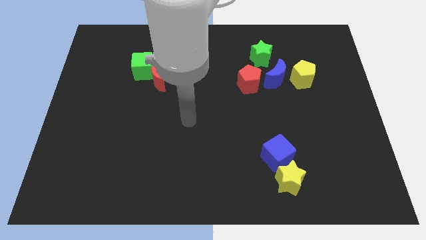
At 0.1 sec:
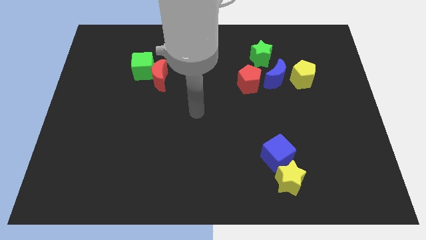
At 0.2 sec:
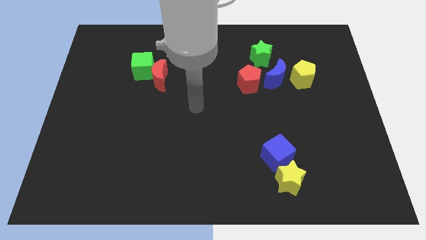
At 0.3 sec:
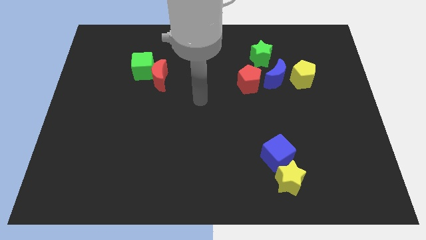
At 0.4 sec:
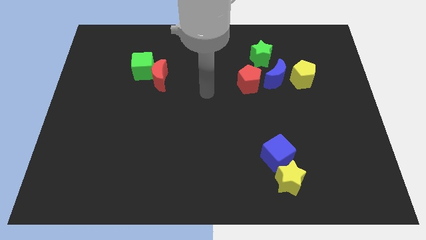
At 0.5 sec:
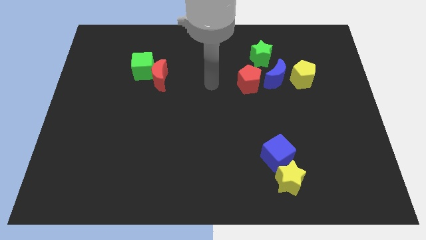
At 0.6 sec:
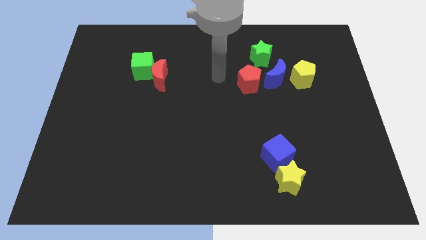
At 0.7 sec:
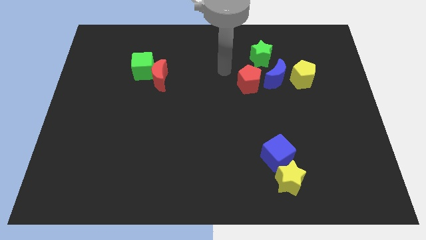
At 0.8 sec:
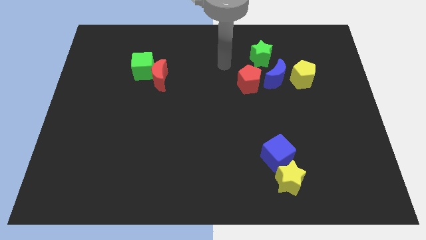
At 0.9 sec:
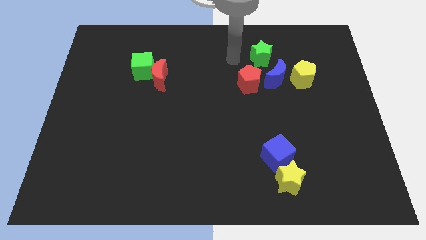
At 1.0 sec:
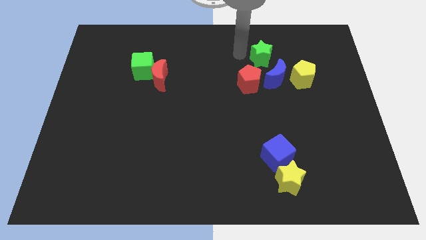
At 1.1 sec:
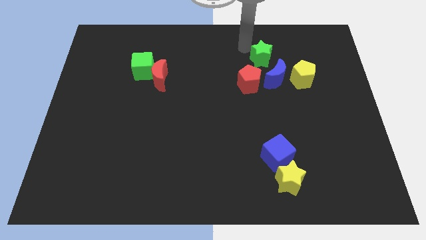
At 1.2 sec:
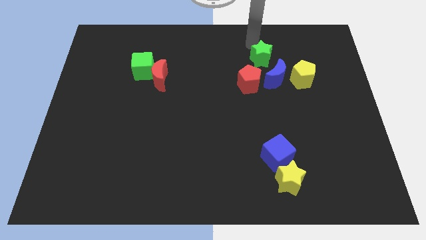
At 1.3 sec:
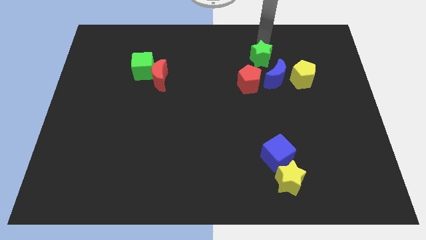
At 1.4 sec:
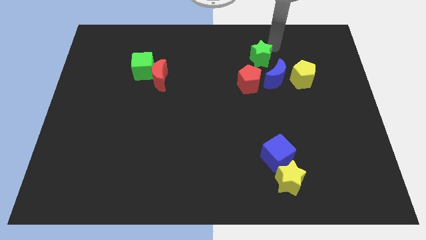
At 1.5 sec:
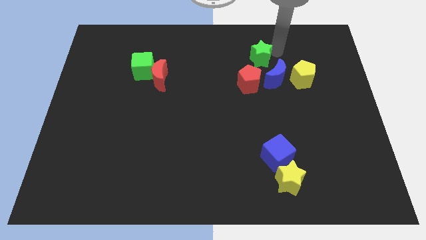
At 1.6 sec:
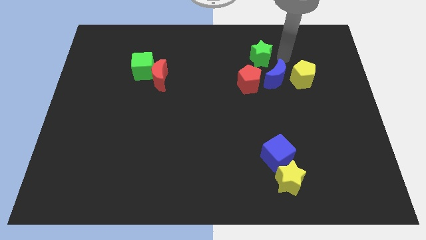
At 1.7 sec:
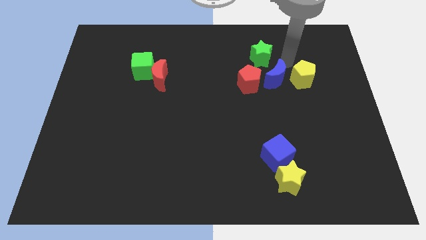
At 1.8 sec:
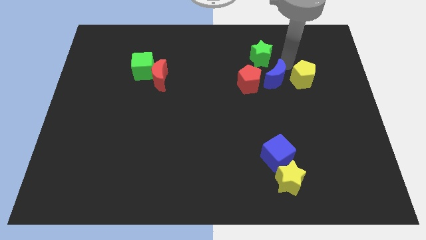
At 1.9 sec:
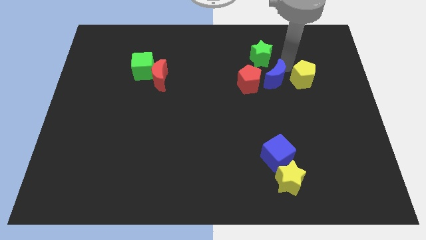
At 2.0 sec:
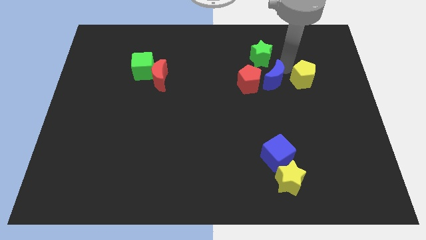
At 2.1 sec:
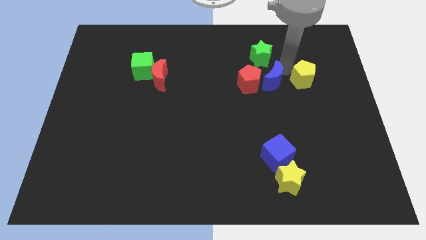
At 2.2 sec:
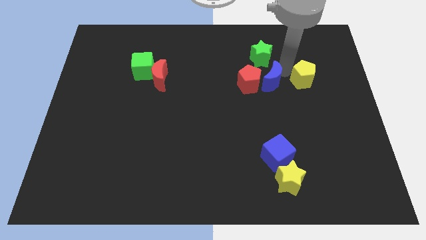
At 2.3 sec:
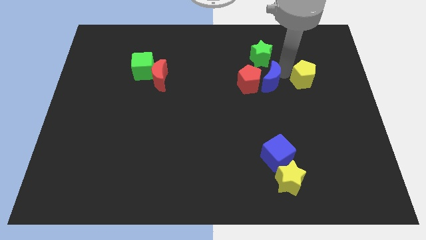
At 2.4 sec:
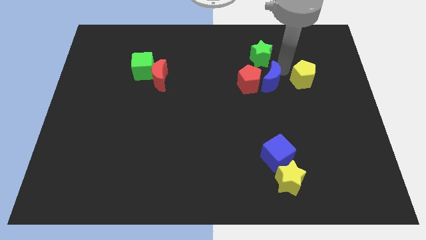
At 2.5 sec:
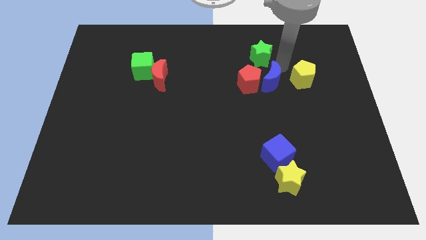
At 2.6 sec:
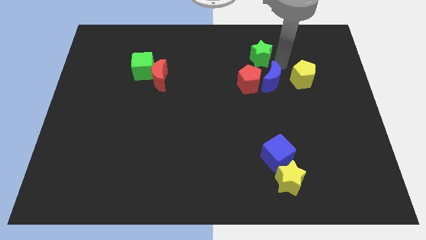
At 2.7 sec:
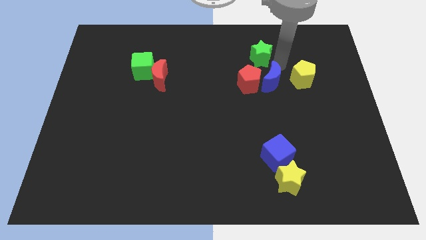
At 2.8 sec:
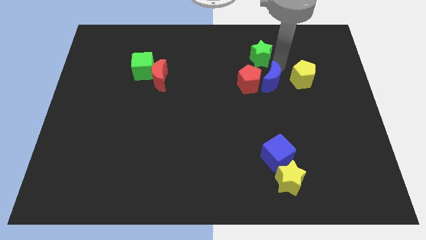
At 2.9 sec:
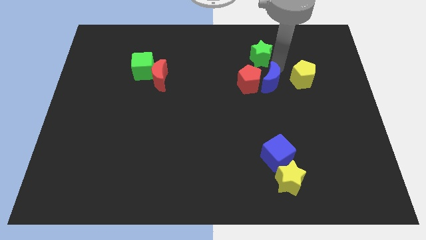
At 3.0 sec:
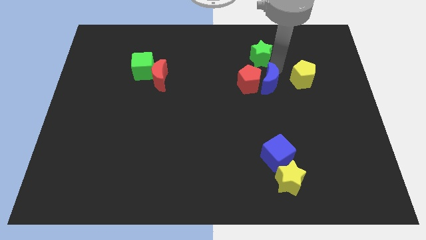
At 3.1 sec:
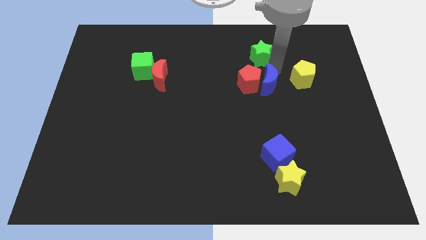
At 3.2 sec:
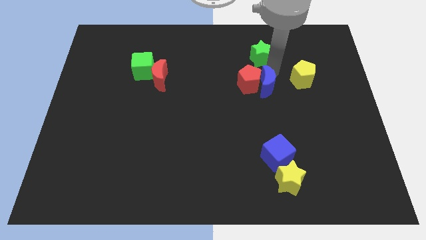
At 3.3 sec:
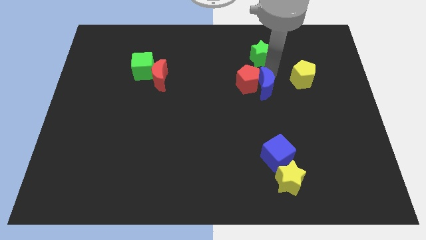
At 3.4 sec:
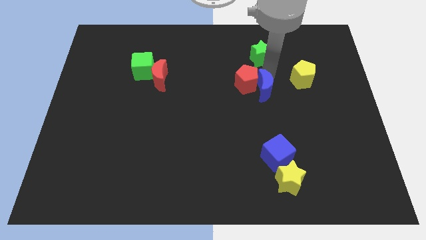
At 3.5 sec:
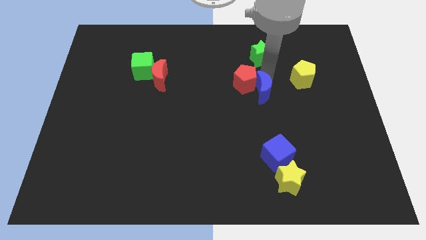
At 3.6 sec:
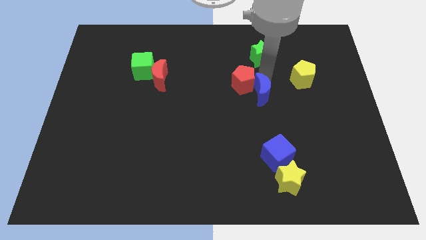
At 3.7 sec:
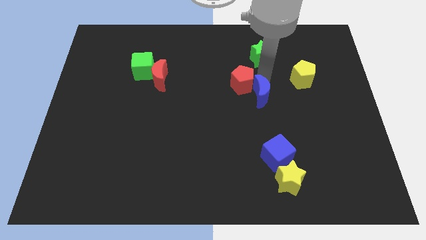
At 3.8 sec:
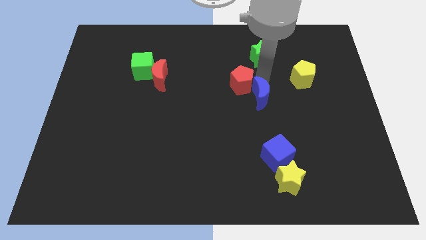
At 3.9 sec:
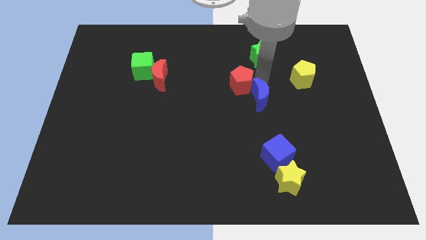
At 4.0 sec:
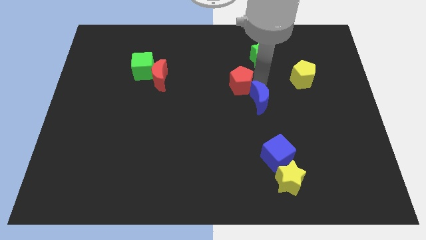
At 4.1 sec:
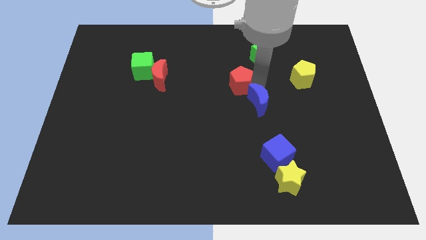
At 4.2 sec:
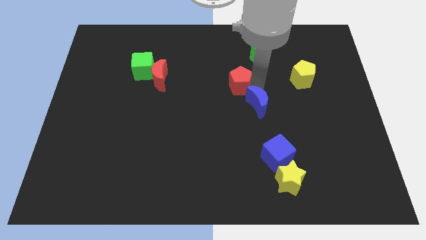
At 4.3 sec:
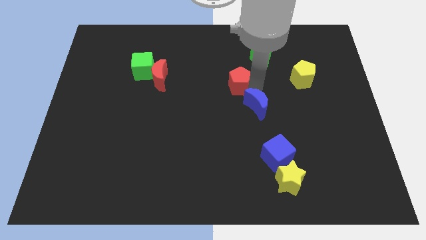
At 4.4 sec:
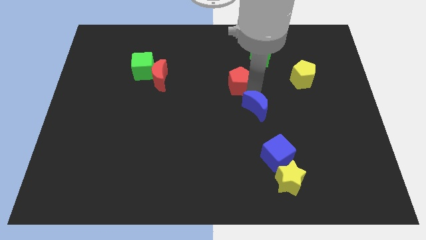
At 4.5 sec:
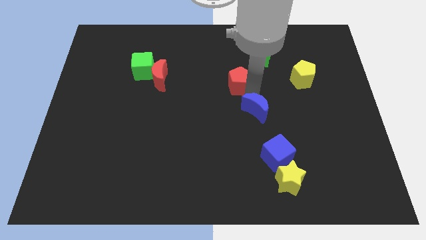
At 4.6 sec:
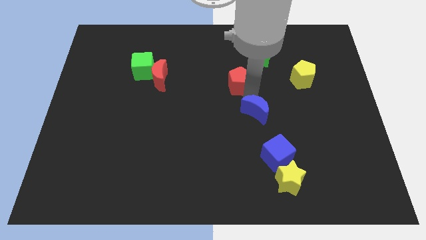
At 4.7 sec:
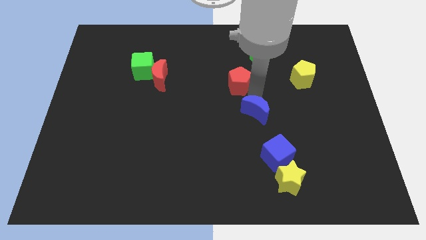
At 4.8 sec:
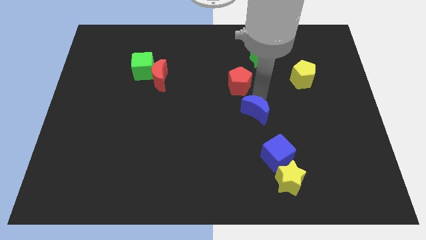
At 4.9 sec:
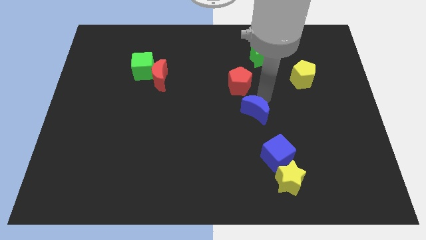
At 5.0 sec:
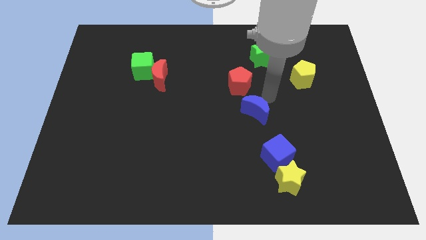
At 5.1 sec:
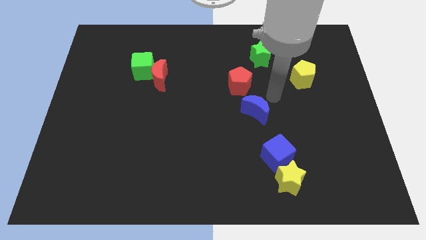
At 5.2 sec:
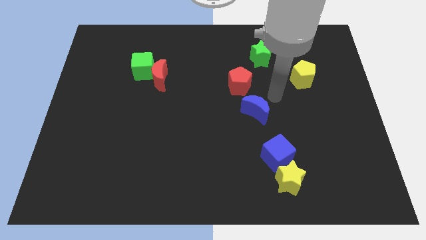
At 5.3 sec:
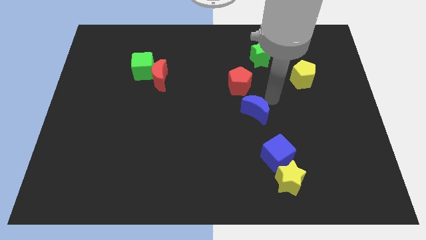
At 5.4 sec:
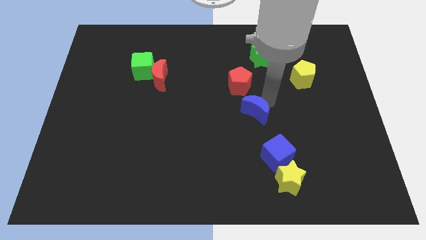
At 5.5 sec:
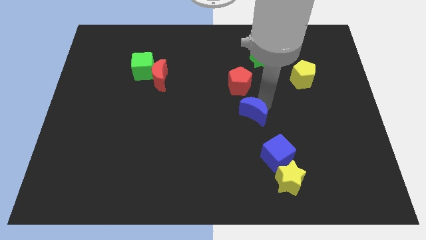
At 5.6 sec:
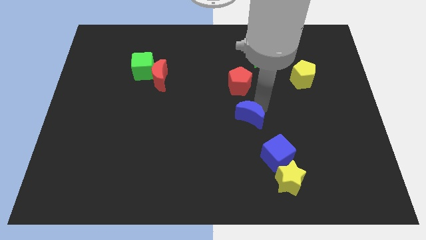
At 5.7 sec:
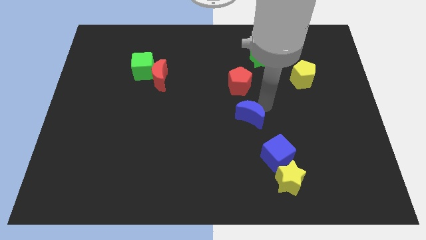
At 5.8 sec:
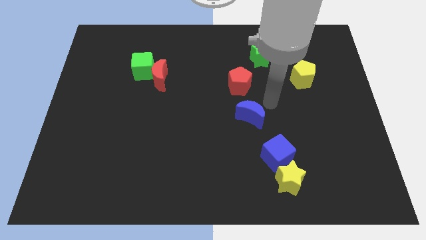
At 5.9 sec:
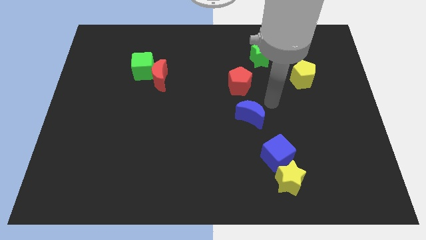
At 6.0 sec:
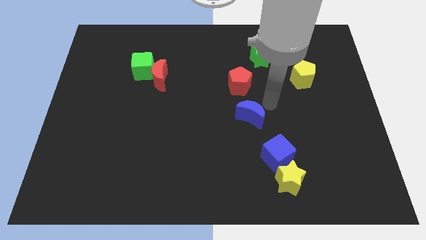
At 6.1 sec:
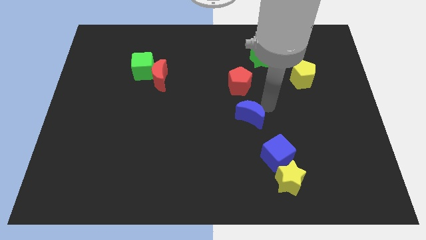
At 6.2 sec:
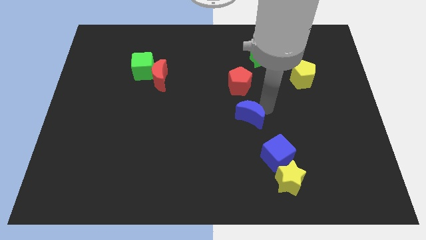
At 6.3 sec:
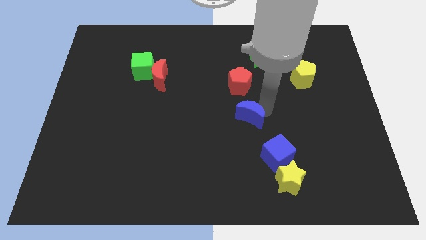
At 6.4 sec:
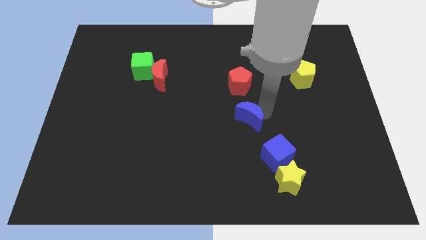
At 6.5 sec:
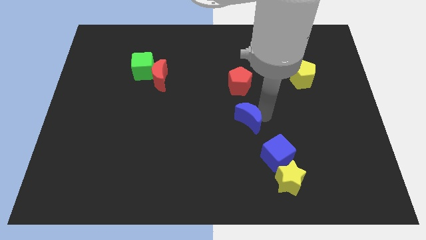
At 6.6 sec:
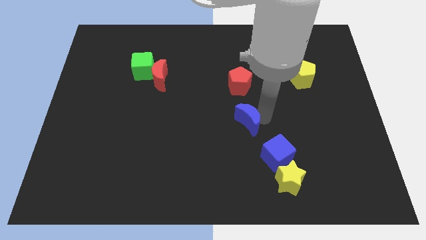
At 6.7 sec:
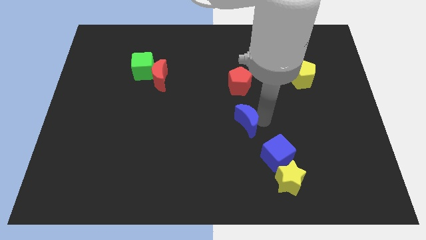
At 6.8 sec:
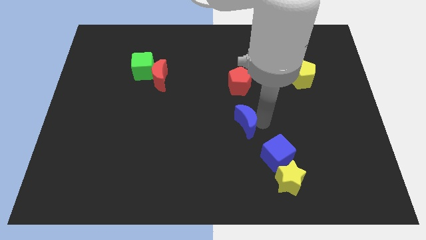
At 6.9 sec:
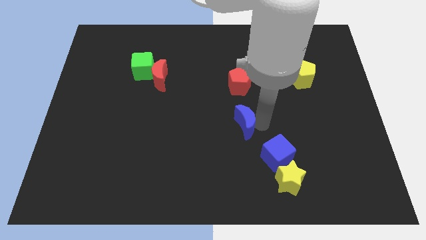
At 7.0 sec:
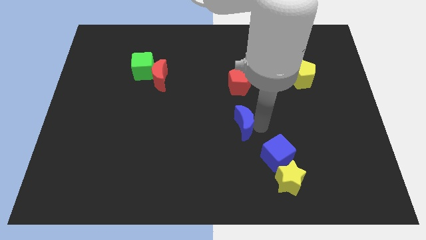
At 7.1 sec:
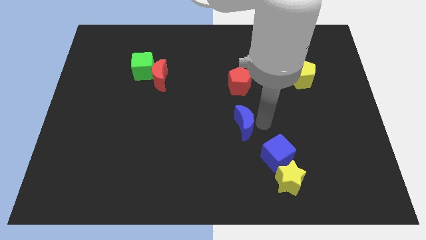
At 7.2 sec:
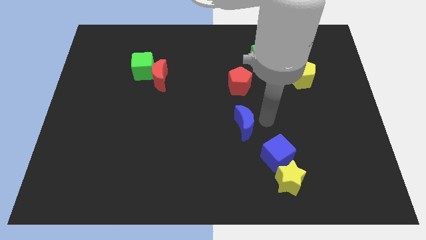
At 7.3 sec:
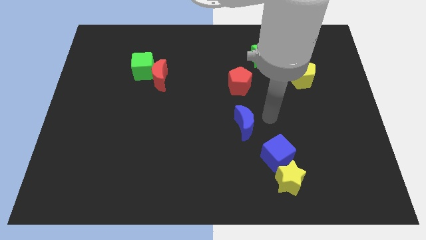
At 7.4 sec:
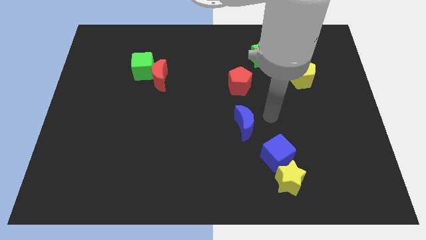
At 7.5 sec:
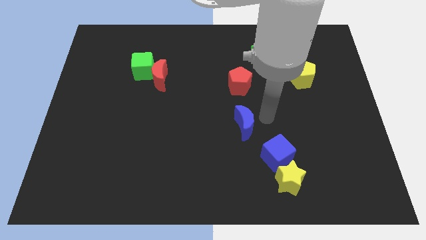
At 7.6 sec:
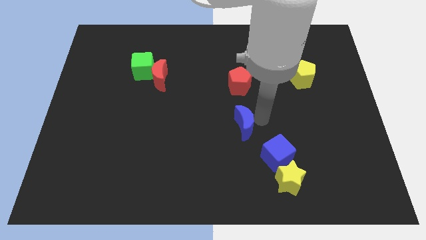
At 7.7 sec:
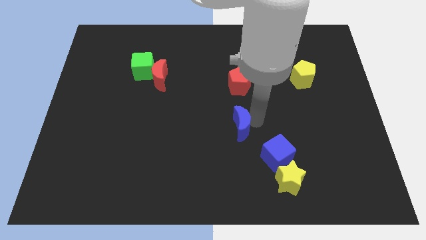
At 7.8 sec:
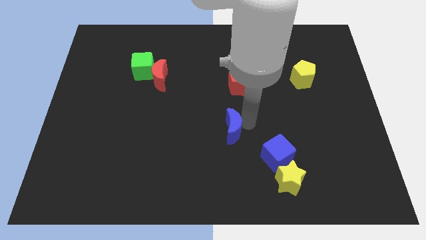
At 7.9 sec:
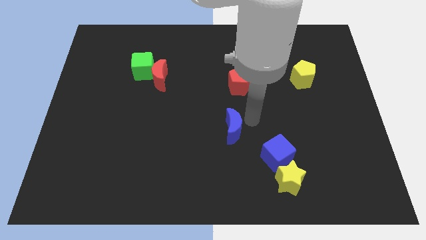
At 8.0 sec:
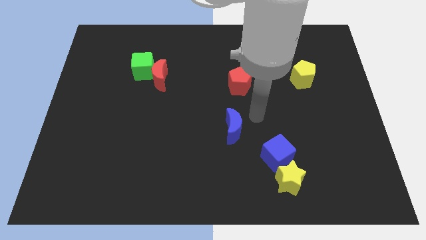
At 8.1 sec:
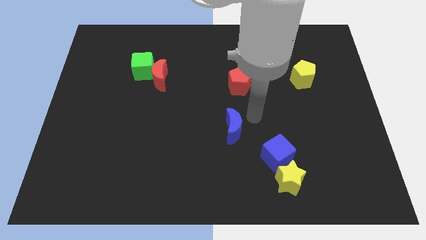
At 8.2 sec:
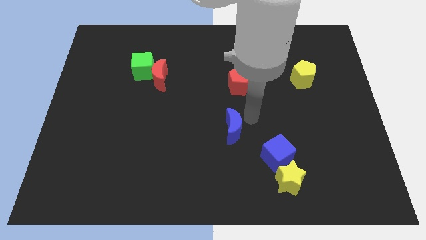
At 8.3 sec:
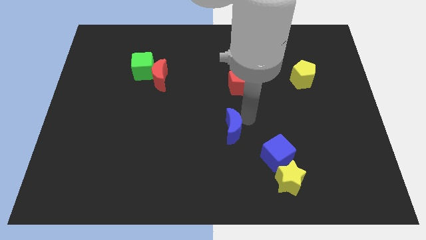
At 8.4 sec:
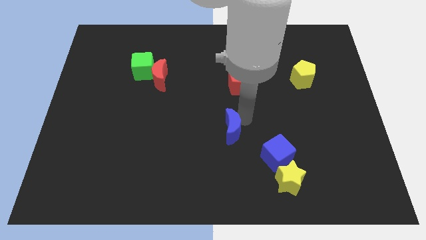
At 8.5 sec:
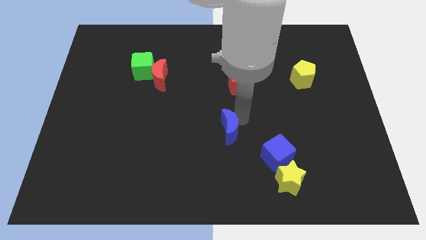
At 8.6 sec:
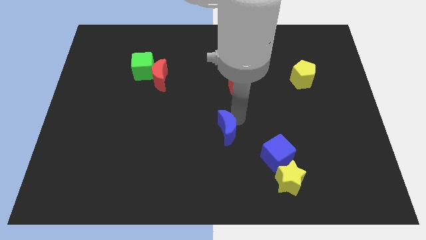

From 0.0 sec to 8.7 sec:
move the blue moon downwards and then left
